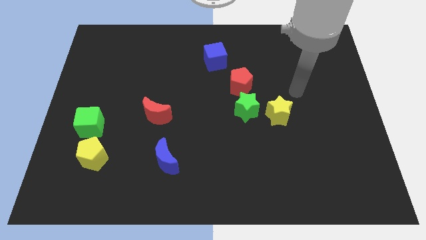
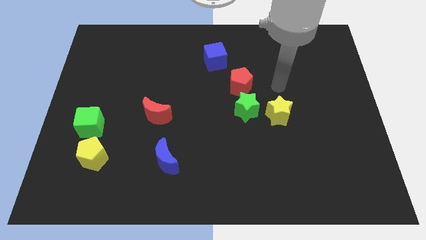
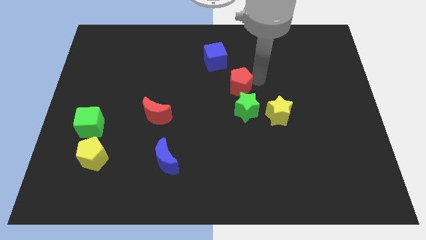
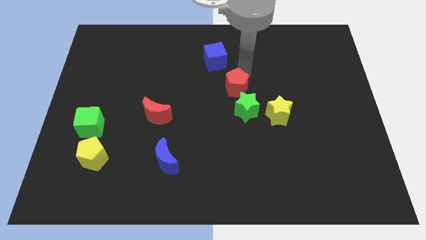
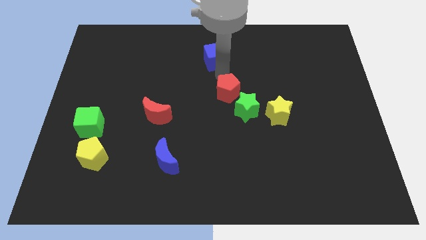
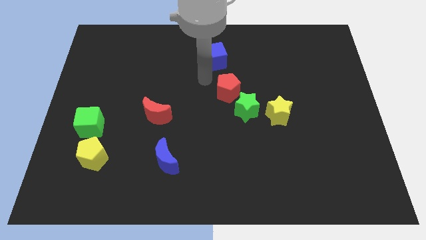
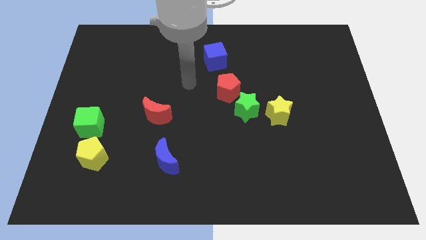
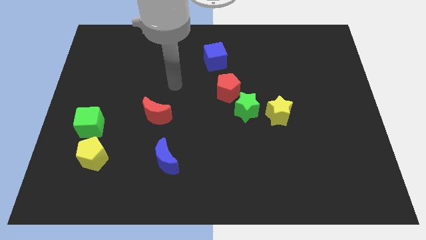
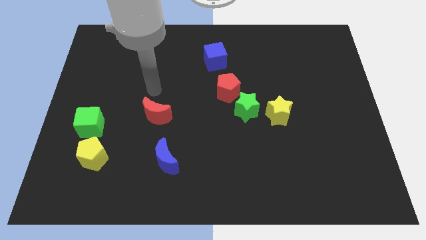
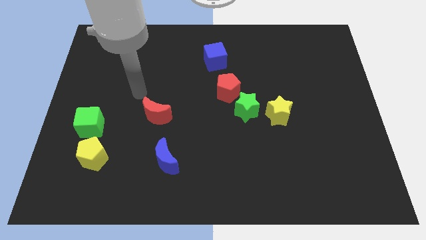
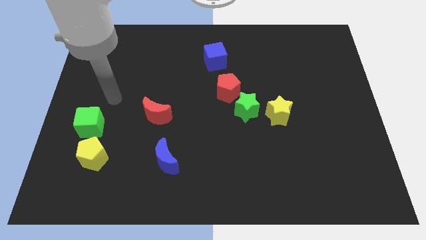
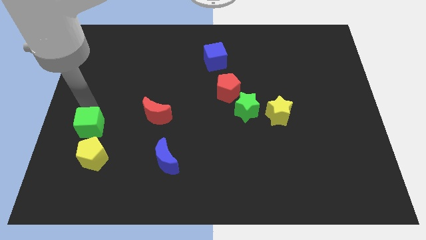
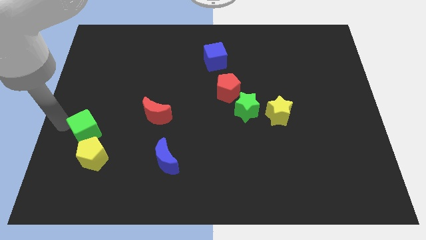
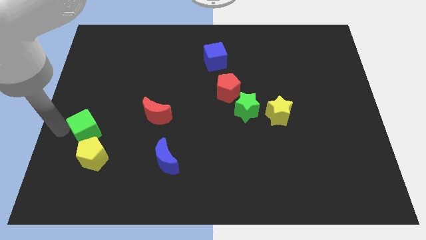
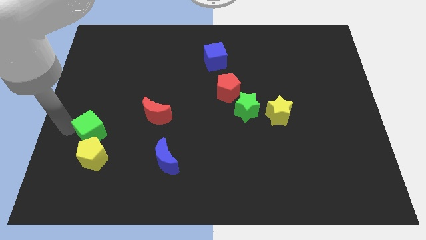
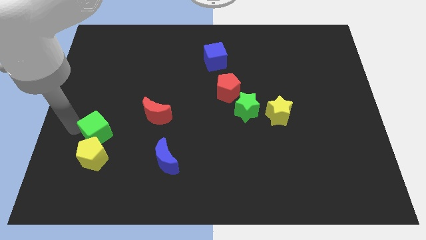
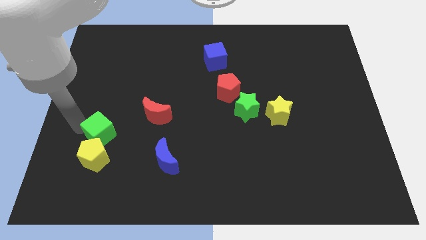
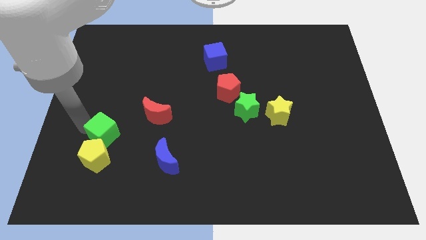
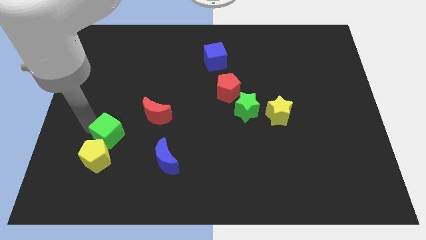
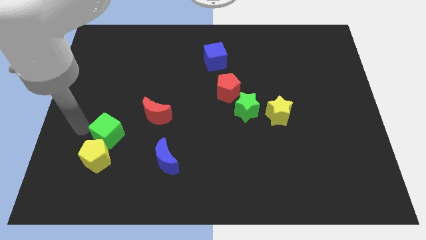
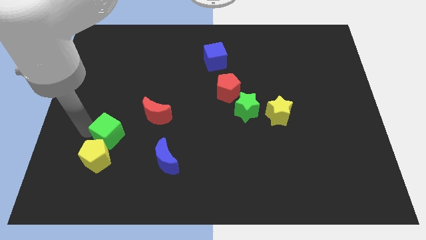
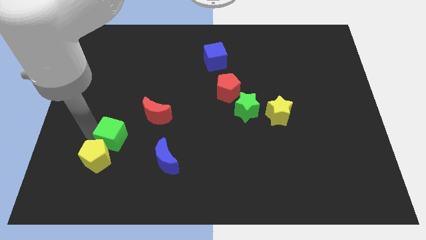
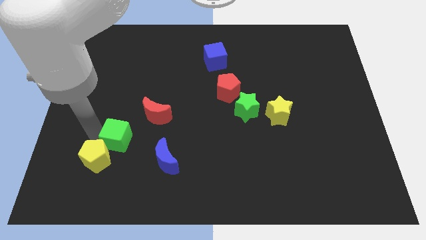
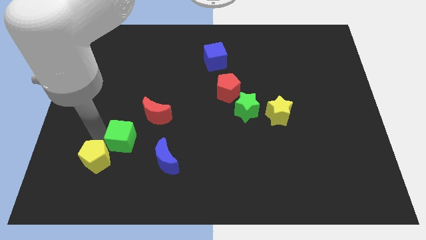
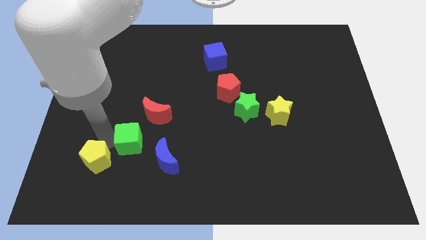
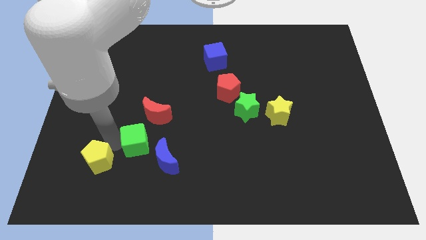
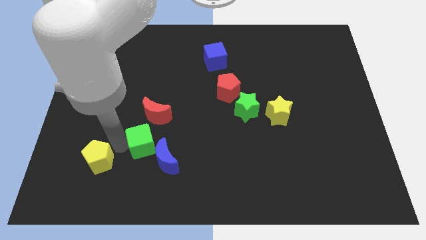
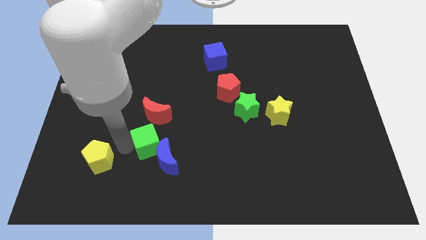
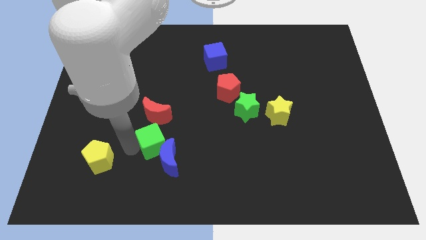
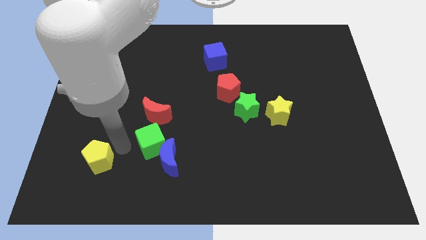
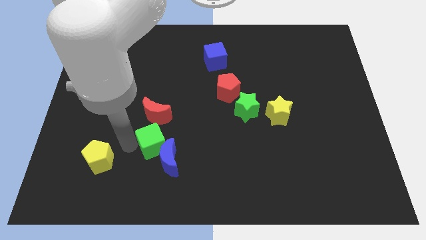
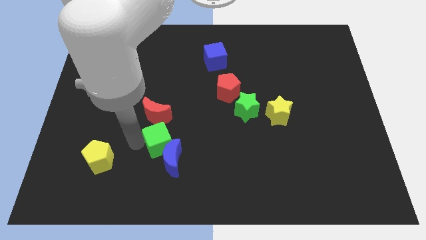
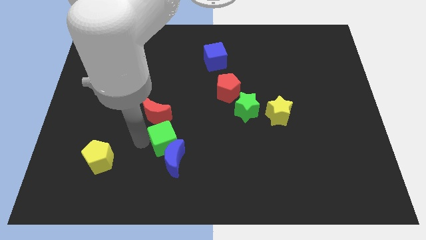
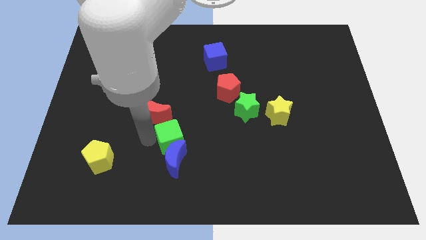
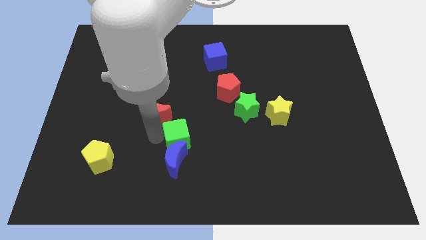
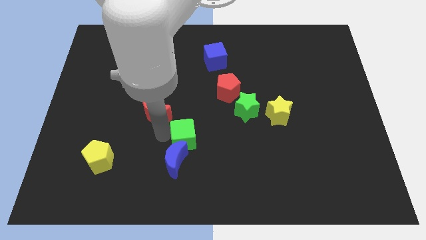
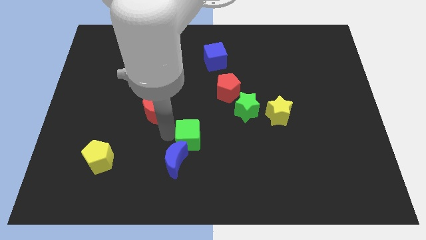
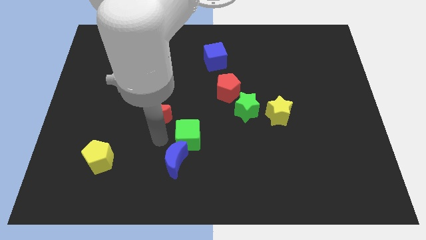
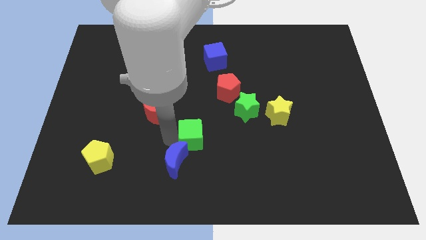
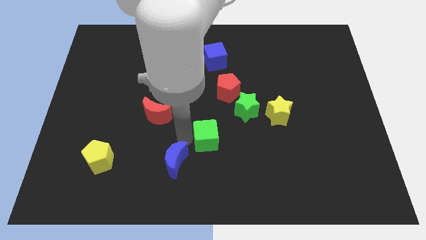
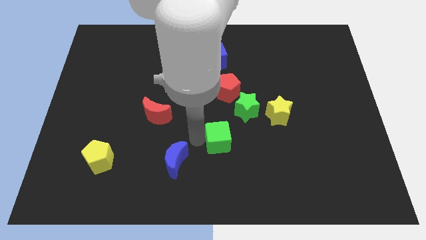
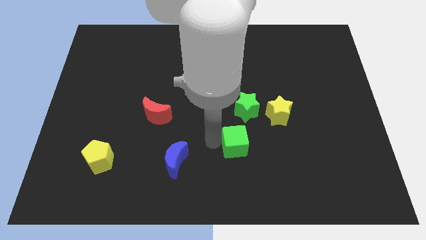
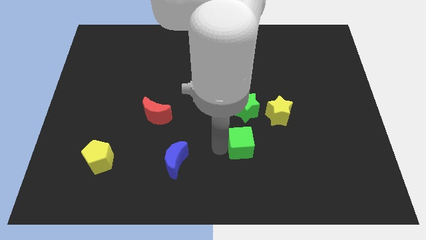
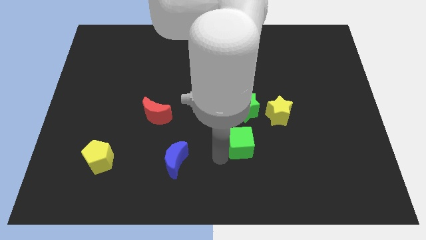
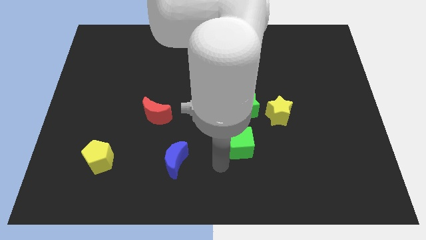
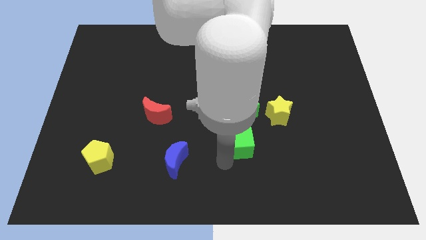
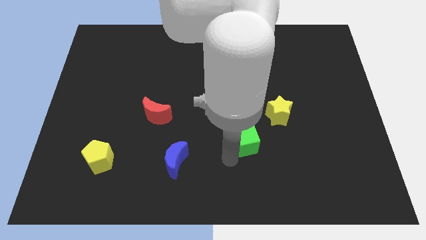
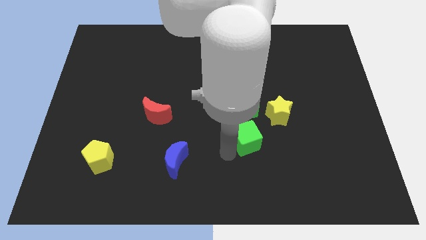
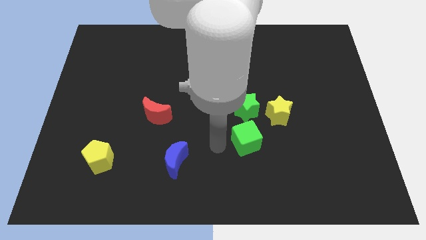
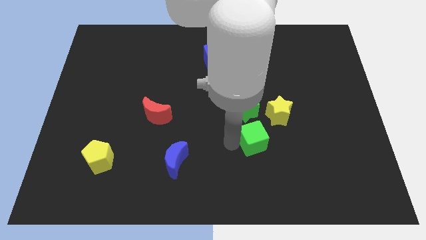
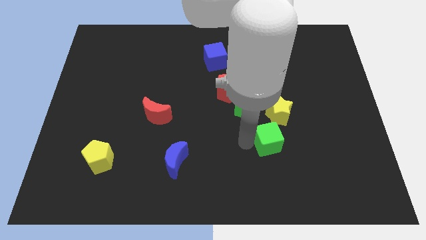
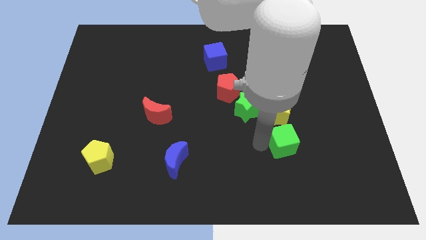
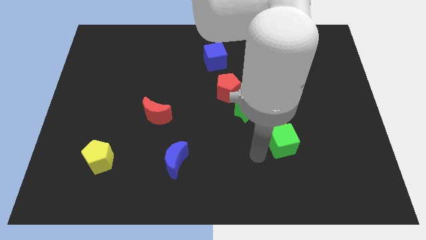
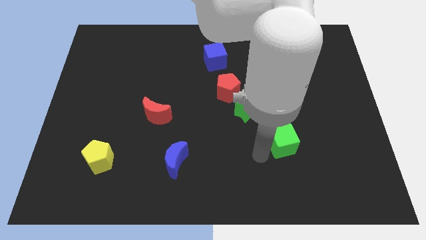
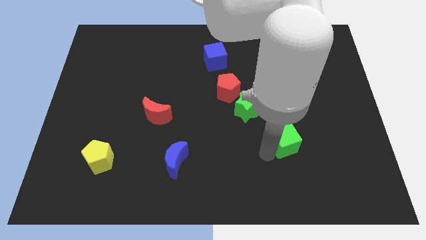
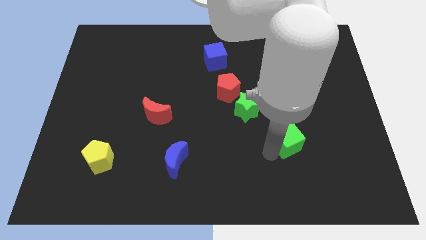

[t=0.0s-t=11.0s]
move the green cube diagonally down and to the right of the yellow star

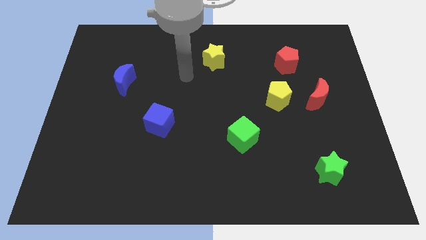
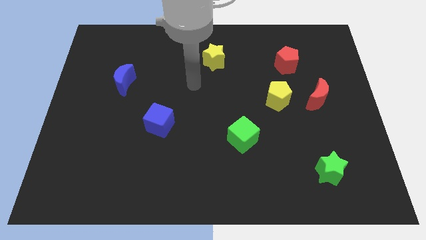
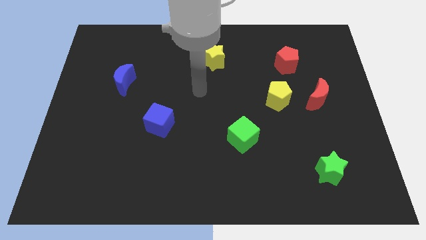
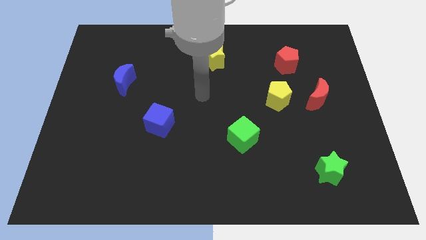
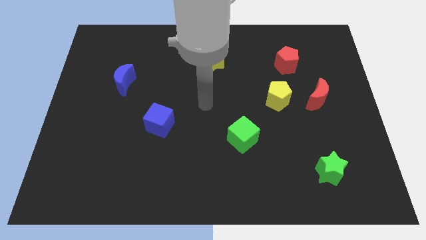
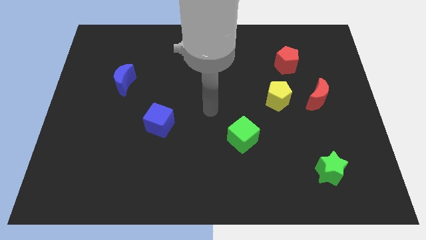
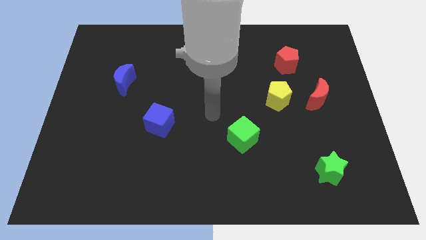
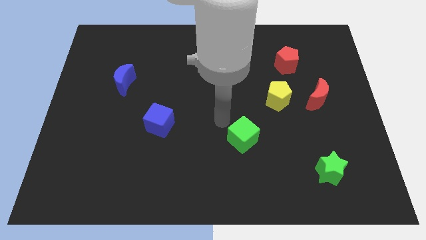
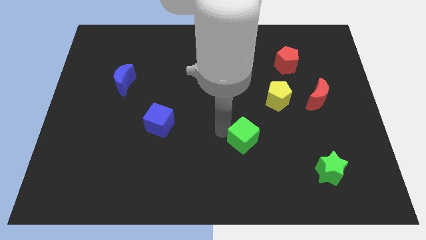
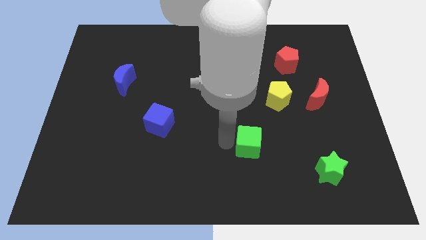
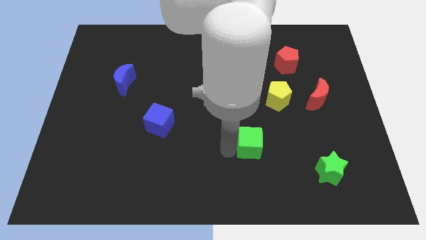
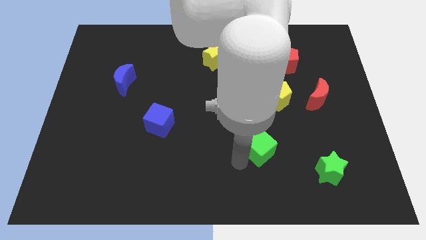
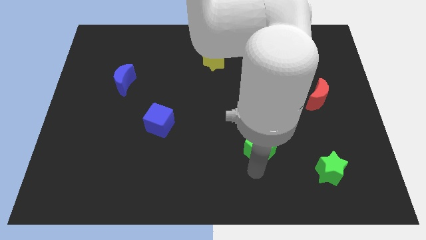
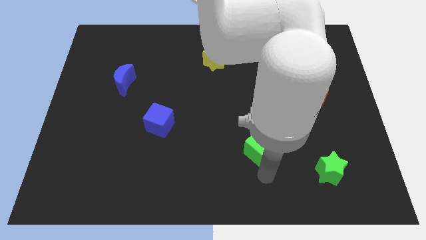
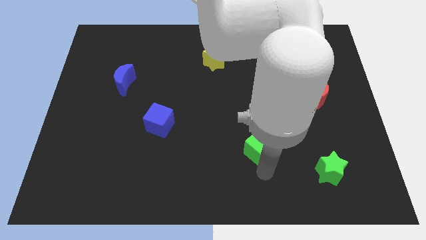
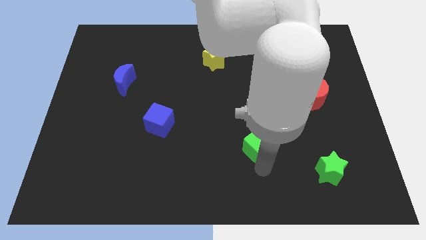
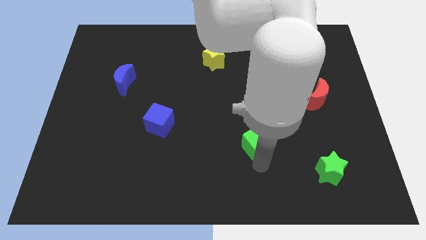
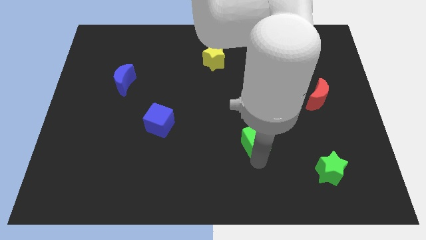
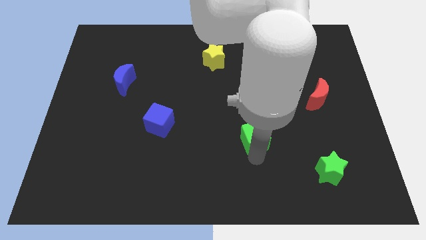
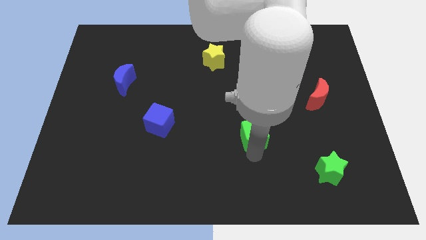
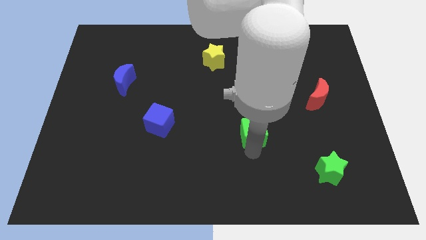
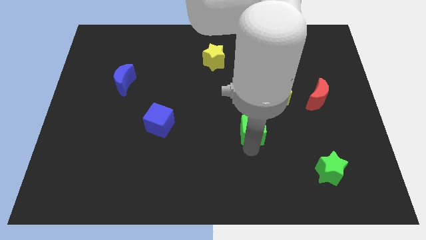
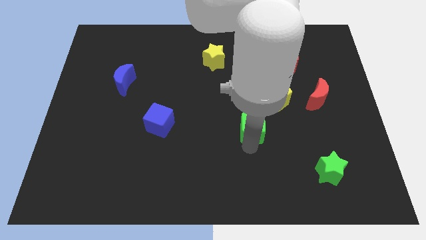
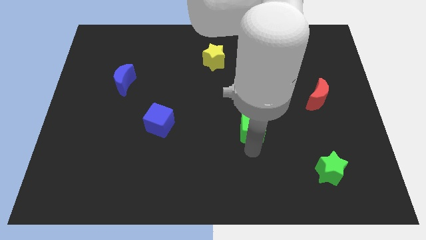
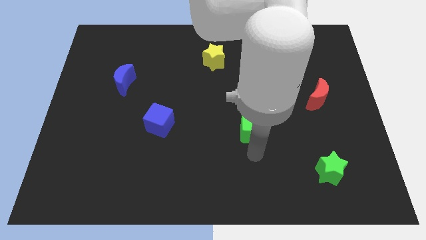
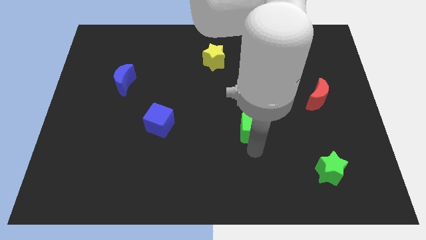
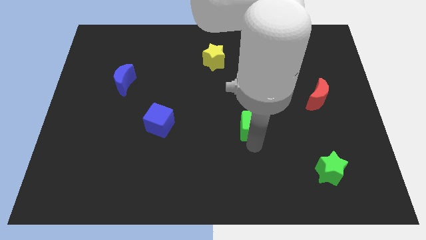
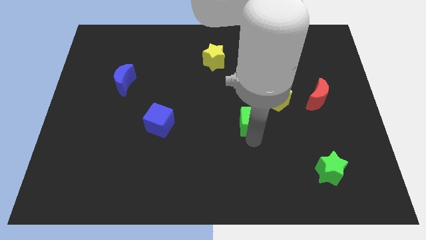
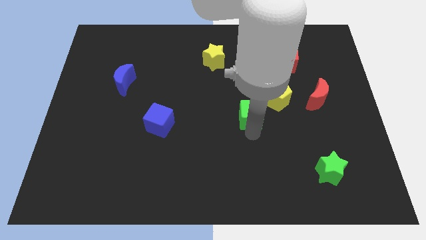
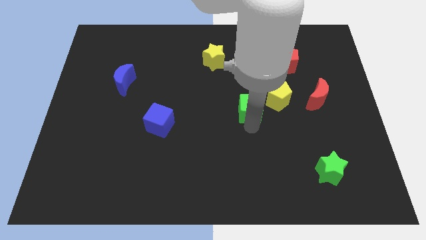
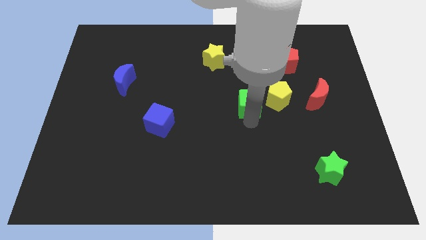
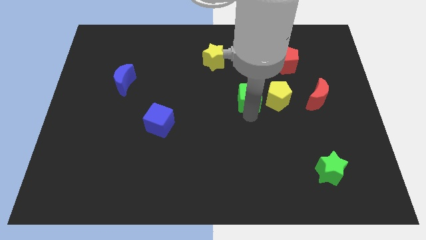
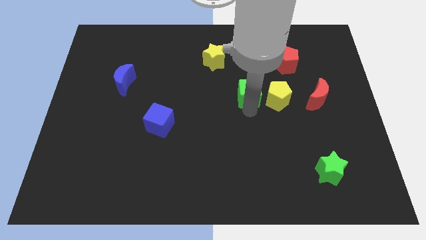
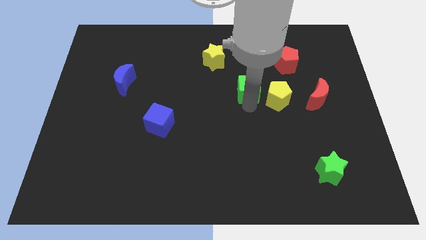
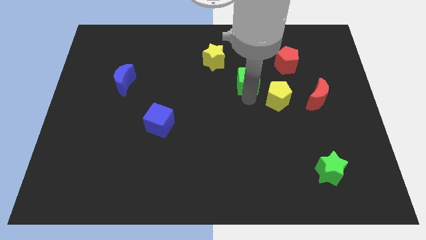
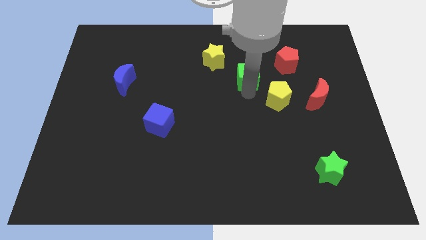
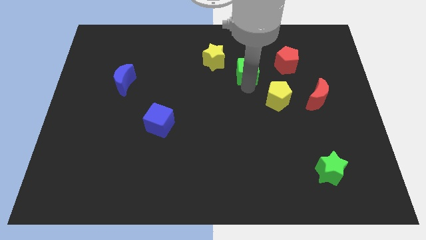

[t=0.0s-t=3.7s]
push the green cube left of the red pentagon
